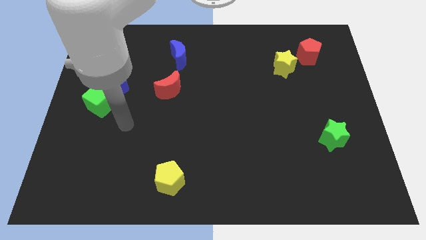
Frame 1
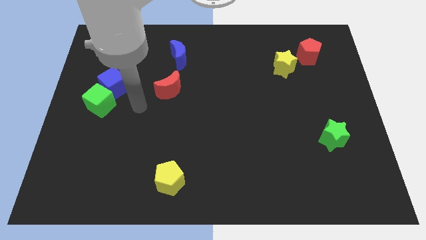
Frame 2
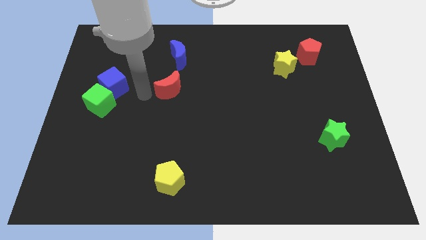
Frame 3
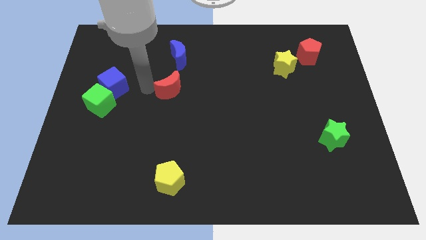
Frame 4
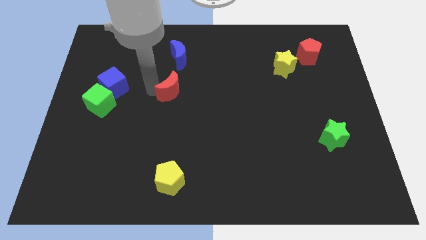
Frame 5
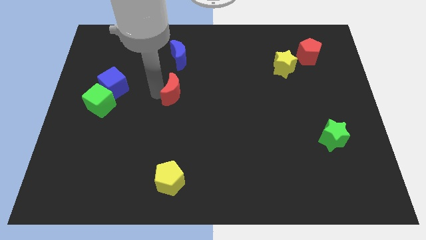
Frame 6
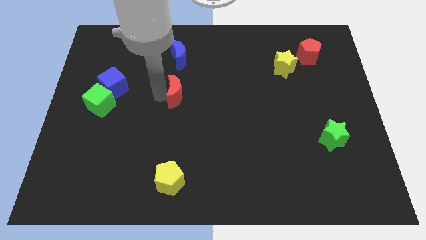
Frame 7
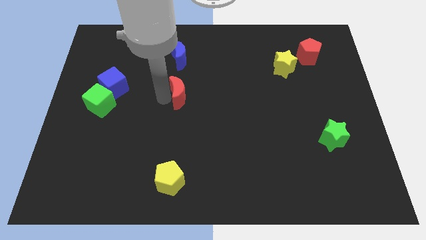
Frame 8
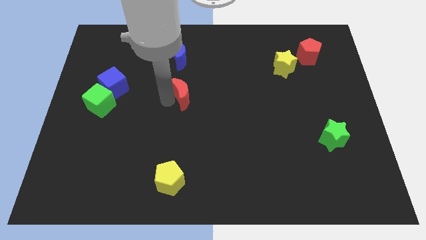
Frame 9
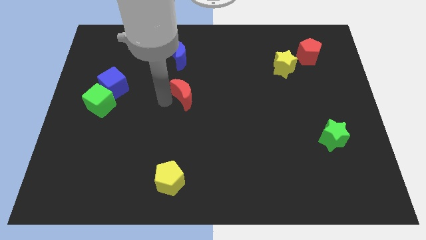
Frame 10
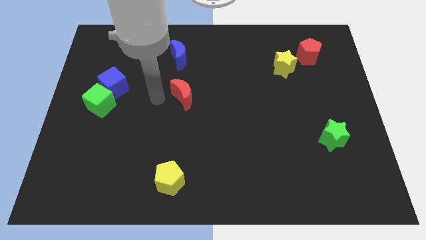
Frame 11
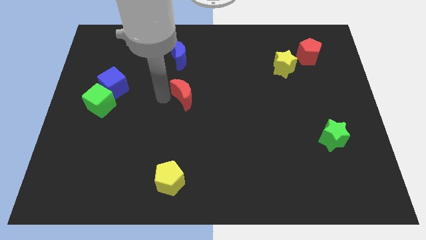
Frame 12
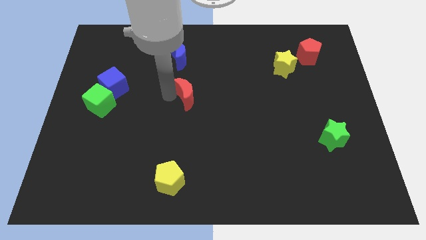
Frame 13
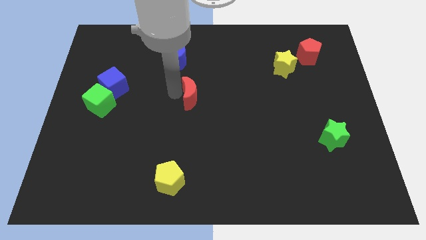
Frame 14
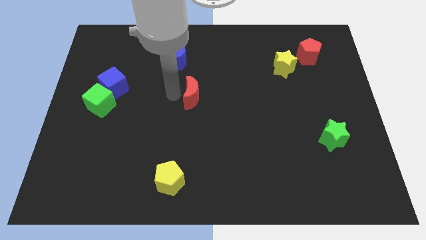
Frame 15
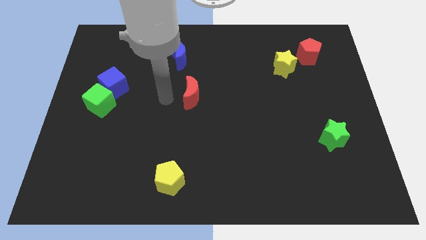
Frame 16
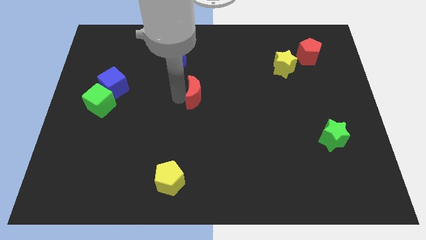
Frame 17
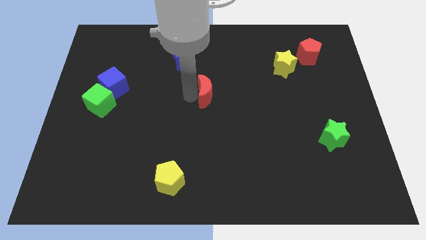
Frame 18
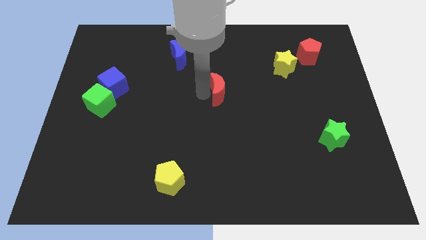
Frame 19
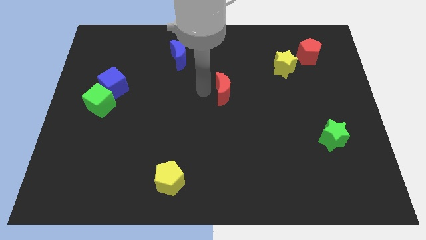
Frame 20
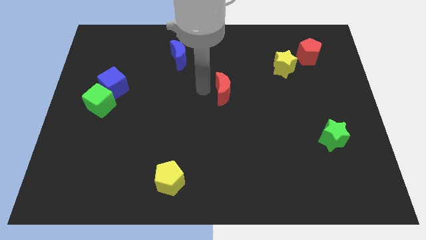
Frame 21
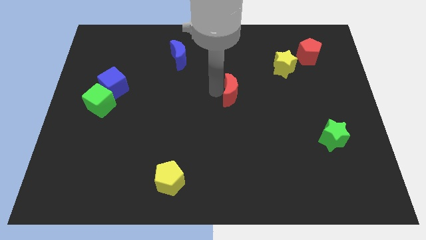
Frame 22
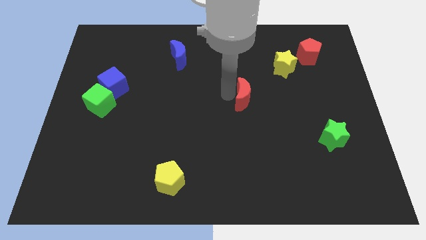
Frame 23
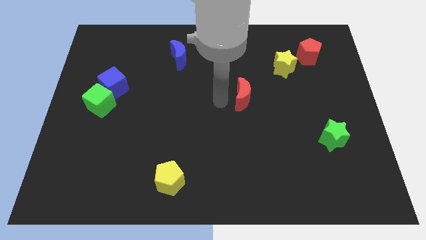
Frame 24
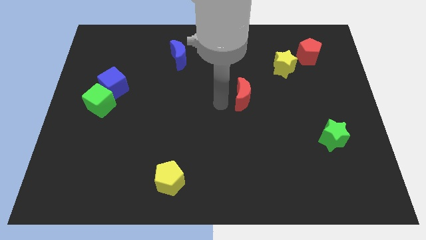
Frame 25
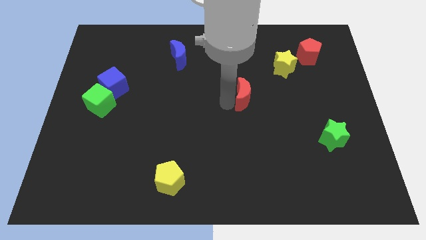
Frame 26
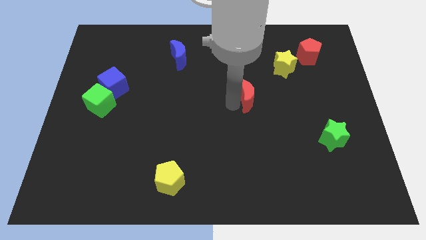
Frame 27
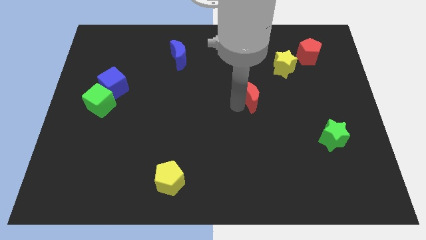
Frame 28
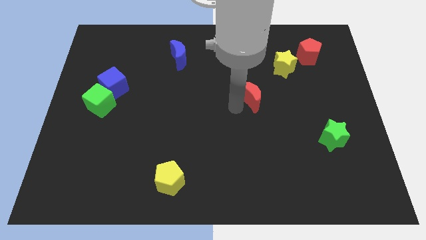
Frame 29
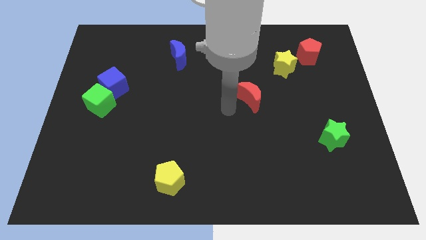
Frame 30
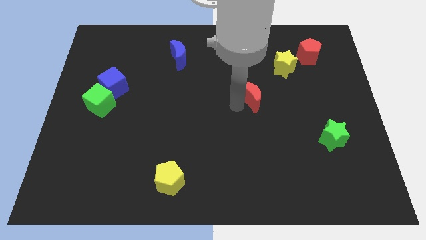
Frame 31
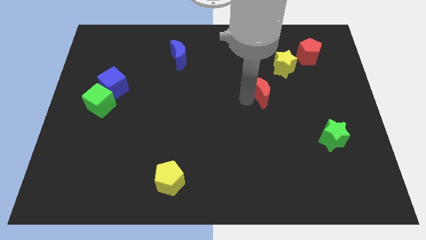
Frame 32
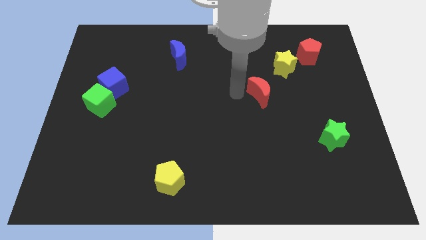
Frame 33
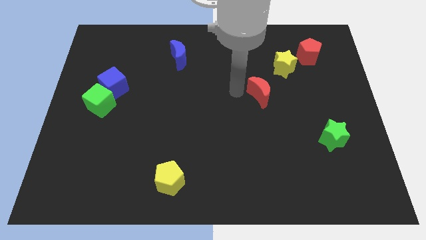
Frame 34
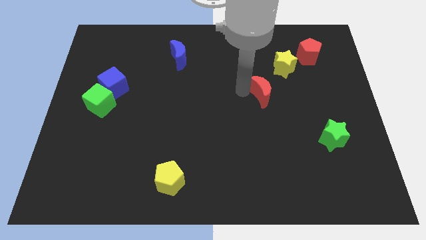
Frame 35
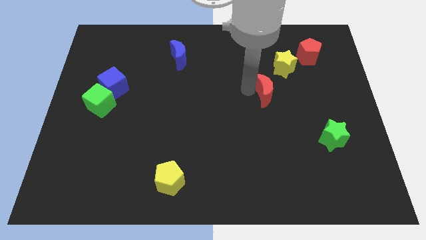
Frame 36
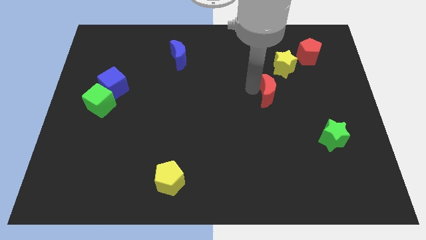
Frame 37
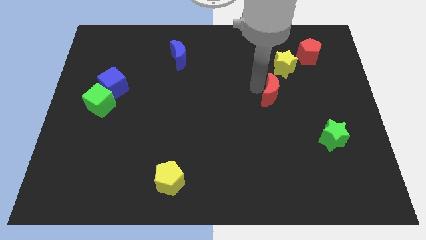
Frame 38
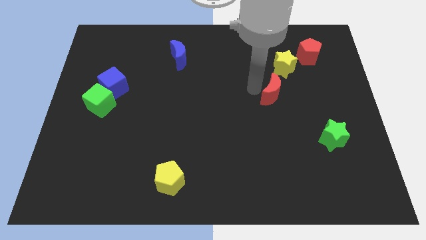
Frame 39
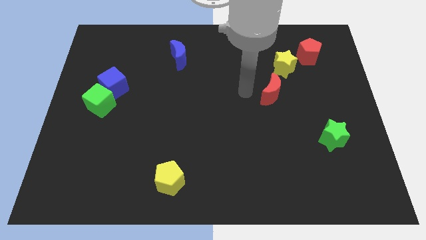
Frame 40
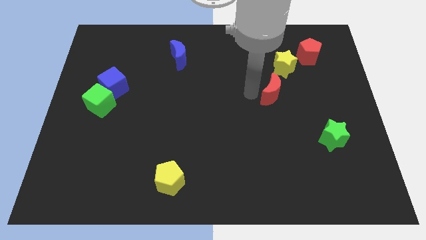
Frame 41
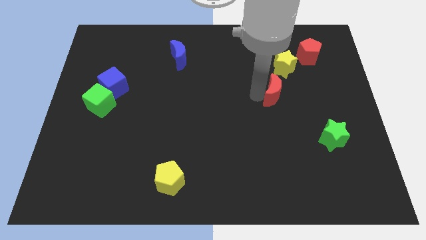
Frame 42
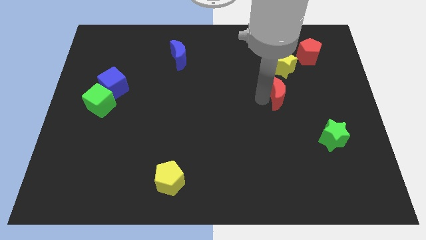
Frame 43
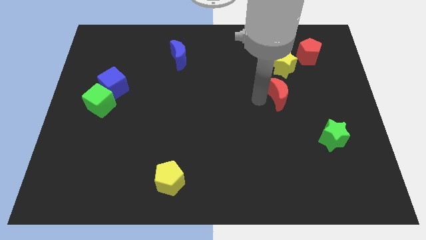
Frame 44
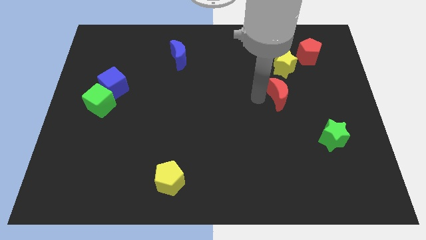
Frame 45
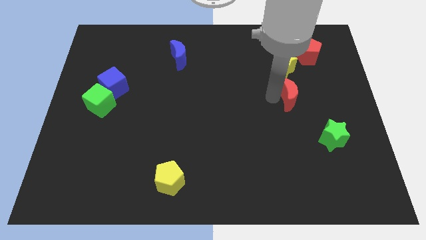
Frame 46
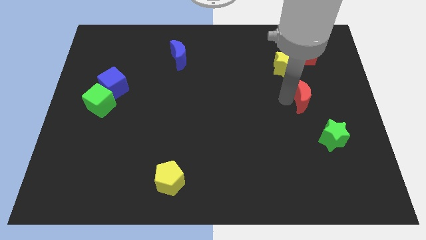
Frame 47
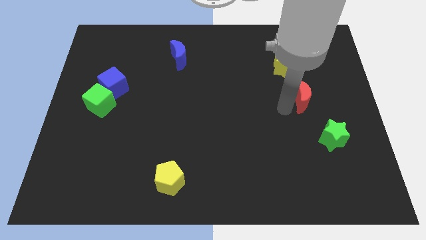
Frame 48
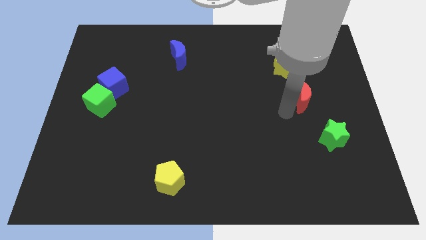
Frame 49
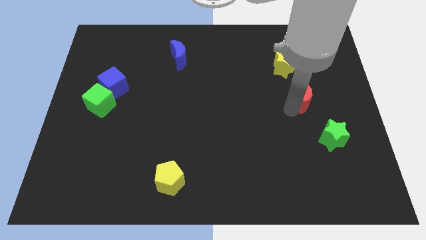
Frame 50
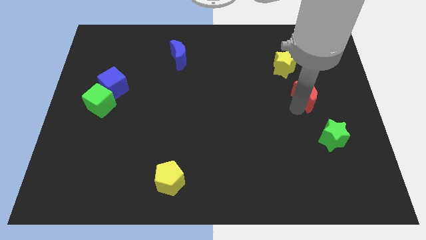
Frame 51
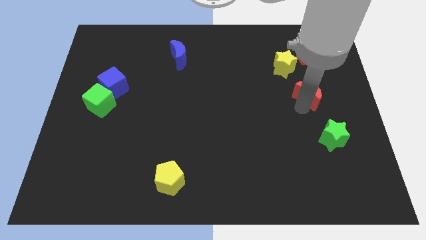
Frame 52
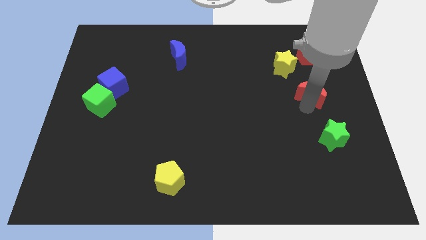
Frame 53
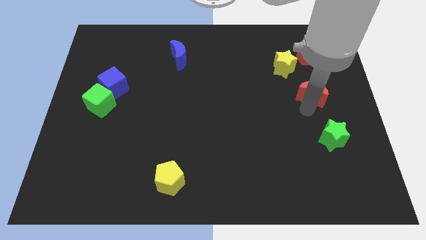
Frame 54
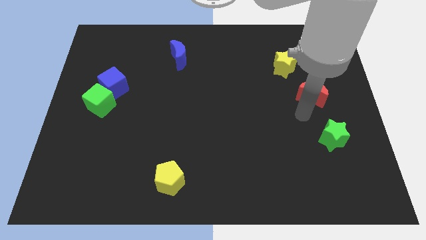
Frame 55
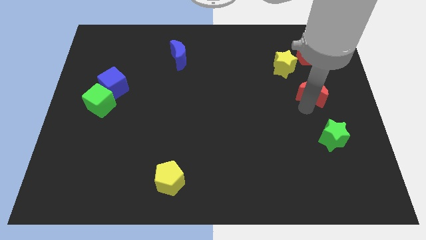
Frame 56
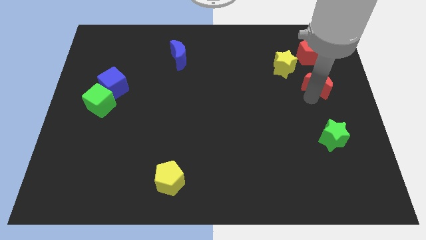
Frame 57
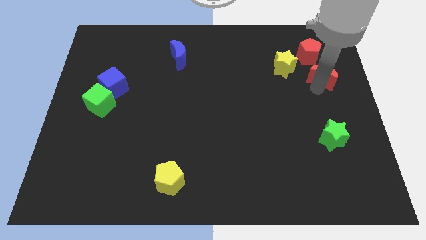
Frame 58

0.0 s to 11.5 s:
push the red moon right of the yellow star
